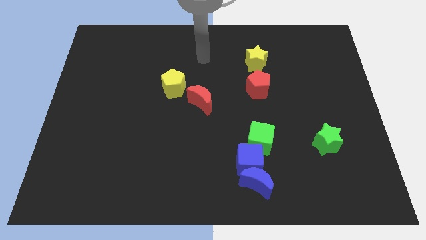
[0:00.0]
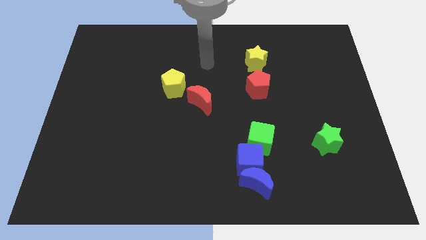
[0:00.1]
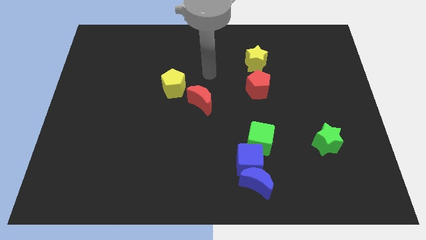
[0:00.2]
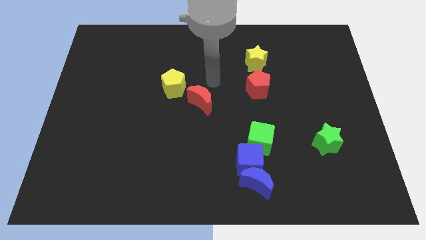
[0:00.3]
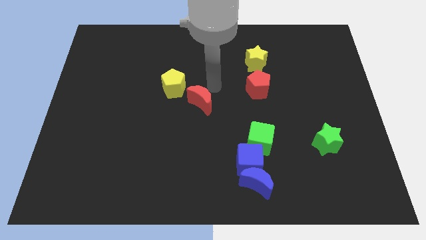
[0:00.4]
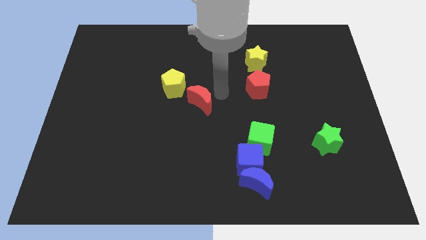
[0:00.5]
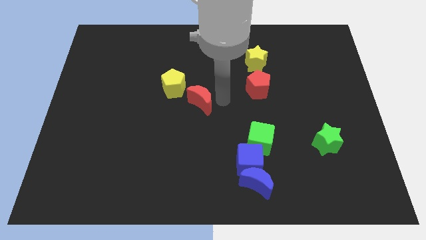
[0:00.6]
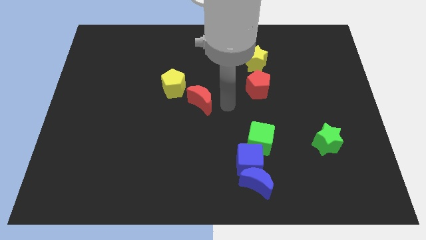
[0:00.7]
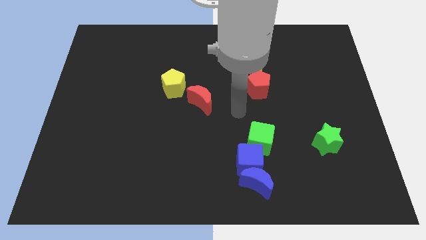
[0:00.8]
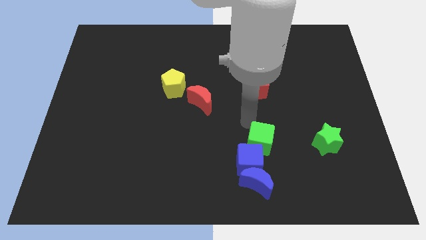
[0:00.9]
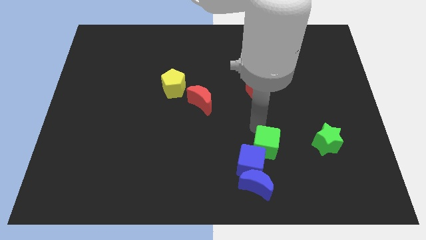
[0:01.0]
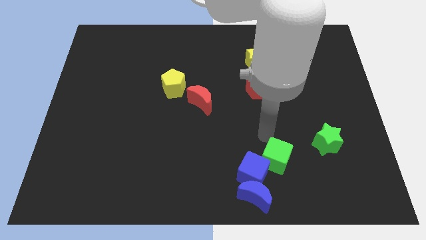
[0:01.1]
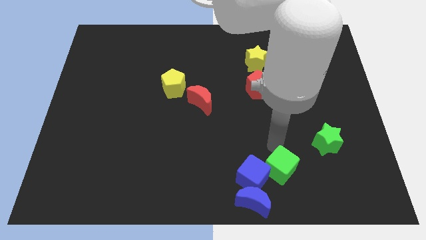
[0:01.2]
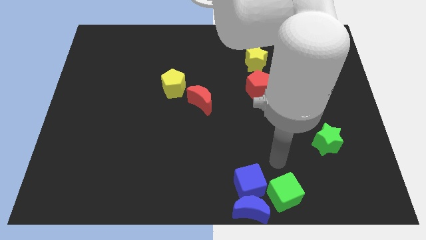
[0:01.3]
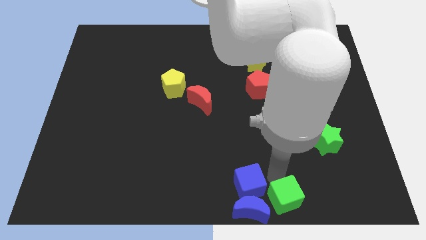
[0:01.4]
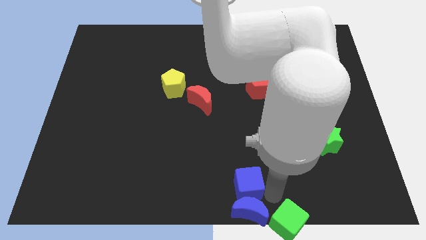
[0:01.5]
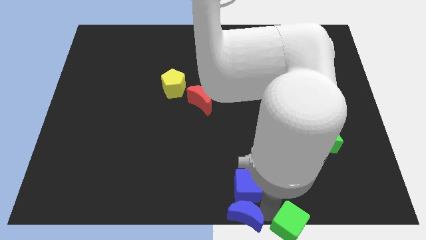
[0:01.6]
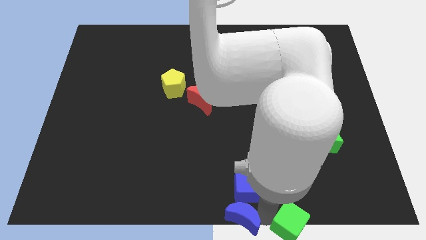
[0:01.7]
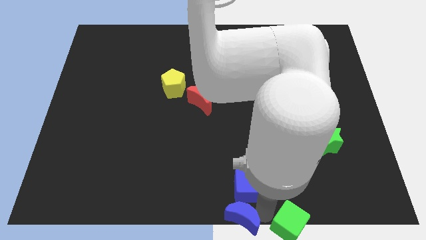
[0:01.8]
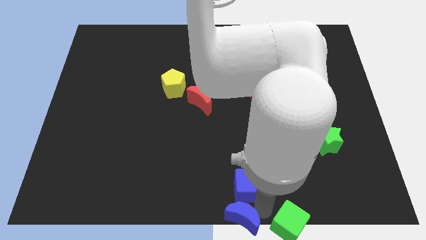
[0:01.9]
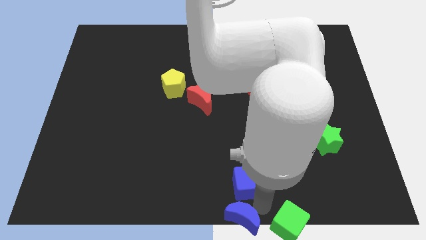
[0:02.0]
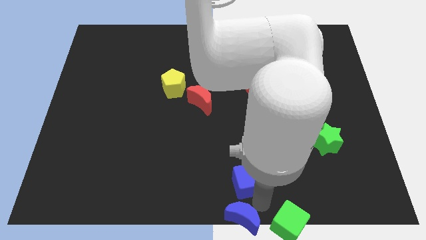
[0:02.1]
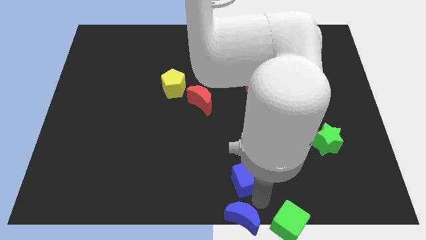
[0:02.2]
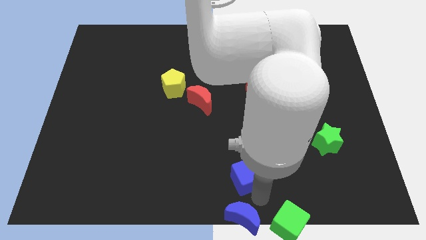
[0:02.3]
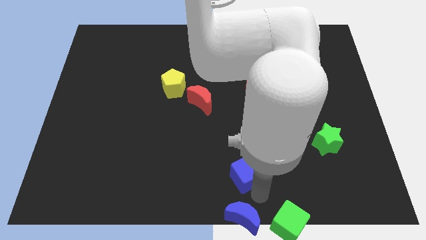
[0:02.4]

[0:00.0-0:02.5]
separate the blue cube from the blue moon and green cube

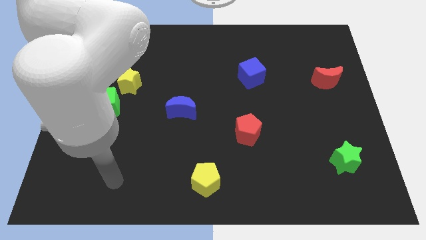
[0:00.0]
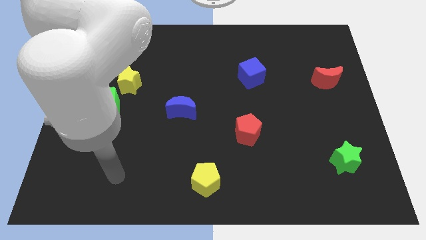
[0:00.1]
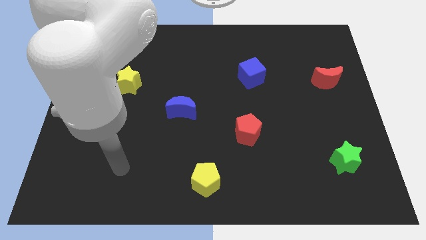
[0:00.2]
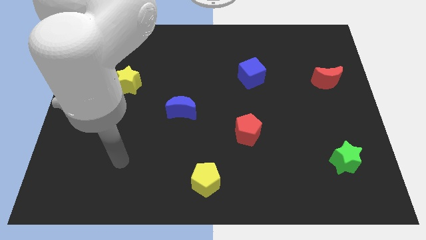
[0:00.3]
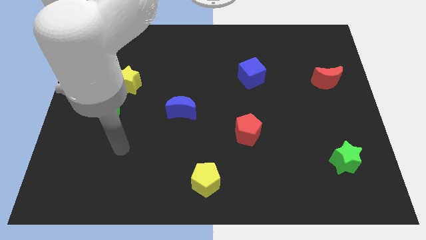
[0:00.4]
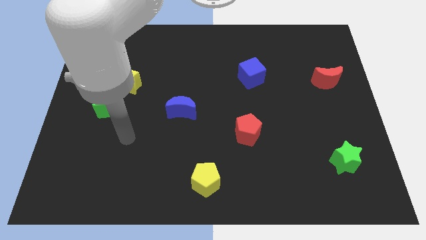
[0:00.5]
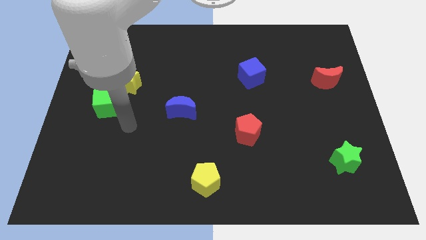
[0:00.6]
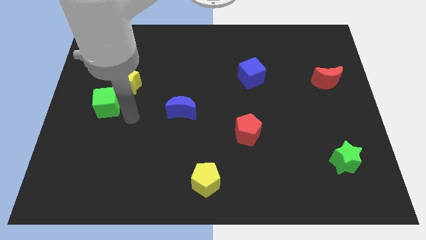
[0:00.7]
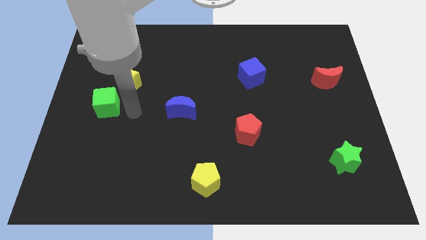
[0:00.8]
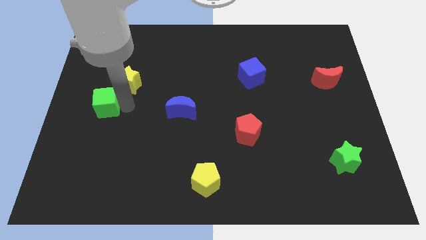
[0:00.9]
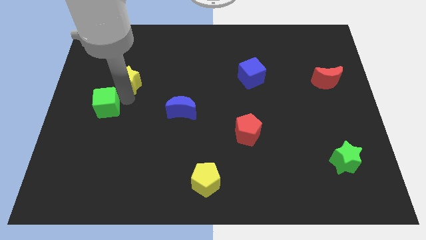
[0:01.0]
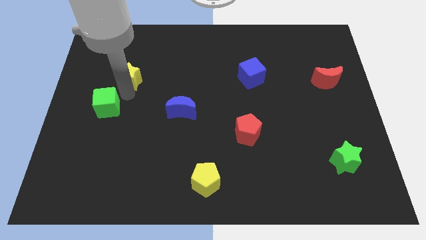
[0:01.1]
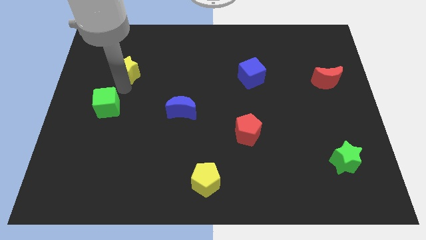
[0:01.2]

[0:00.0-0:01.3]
move the green cube away from the yellow star

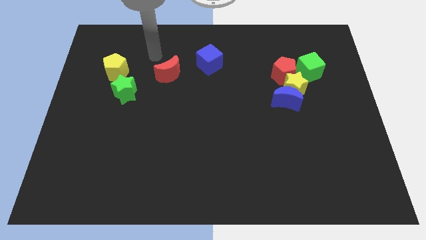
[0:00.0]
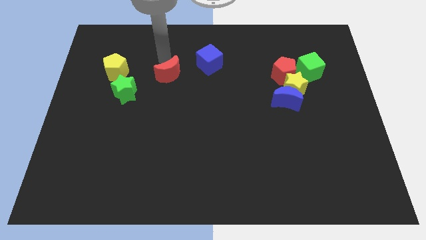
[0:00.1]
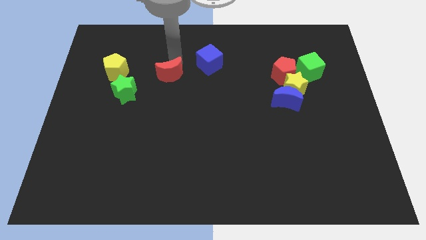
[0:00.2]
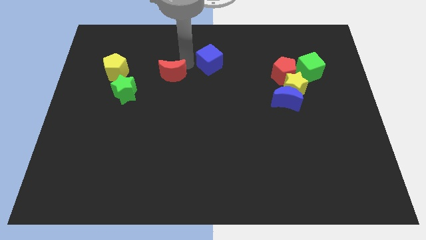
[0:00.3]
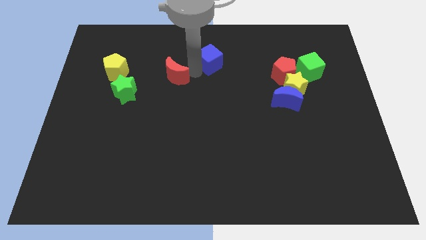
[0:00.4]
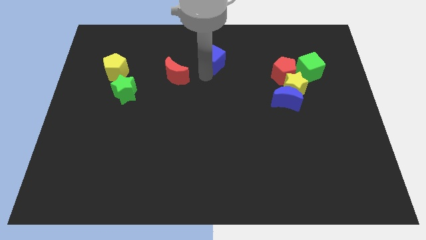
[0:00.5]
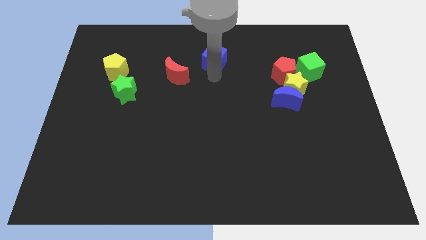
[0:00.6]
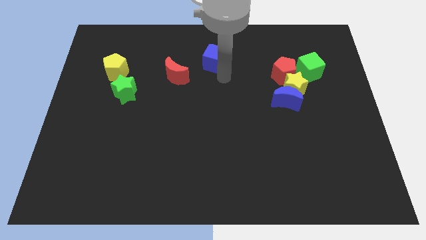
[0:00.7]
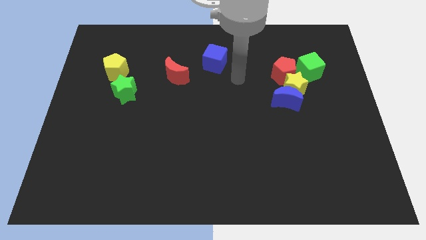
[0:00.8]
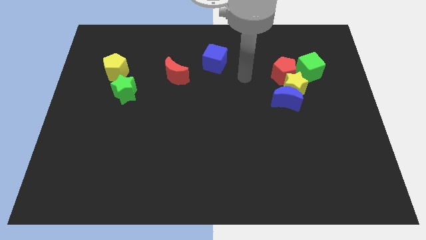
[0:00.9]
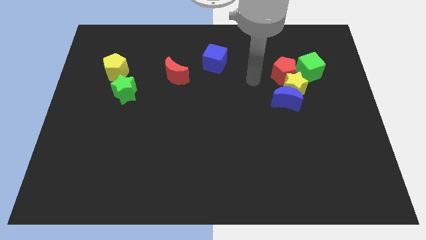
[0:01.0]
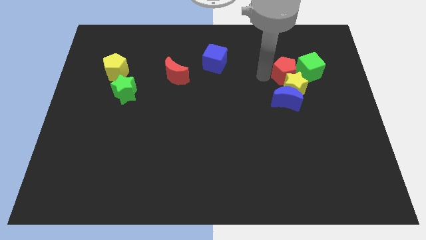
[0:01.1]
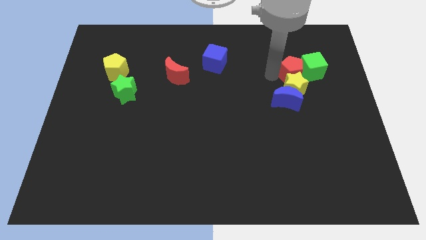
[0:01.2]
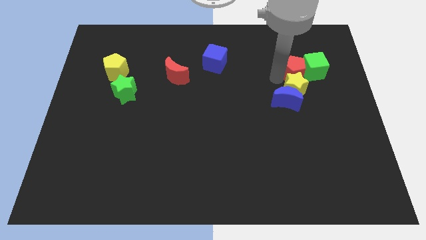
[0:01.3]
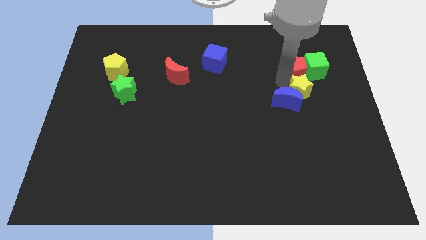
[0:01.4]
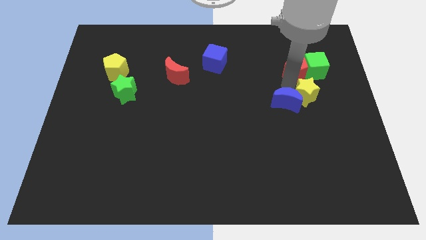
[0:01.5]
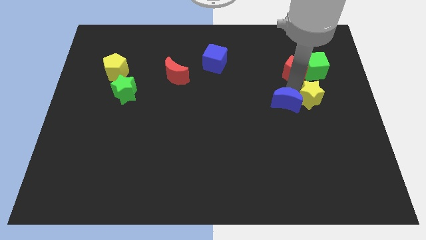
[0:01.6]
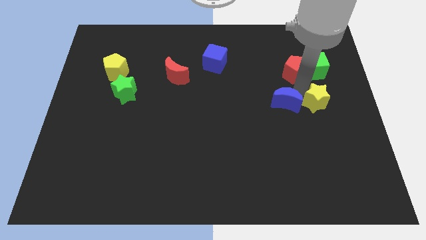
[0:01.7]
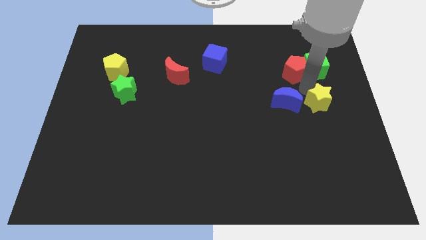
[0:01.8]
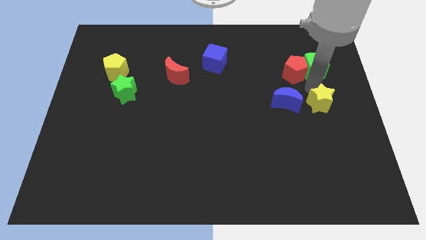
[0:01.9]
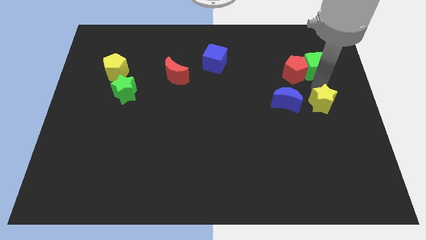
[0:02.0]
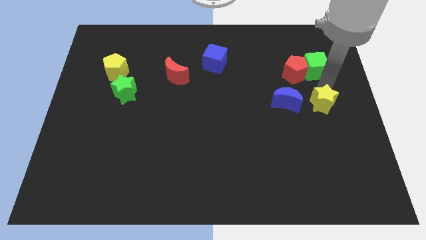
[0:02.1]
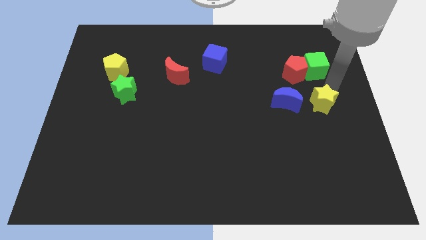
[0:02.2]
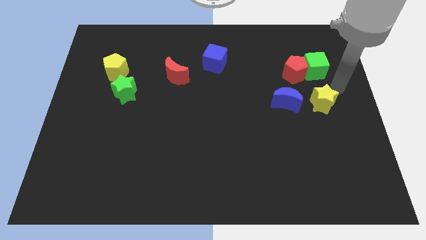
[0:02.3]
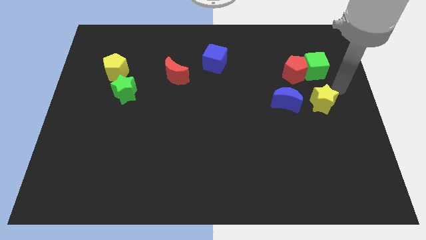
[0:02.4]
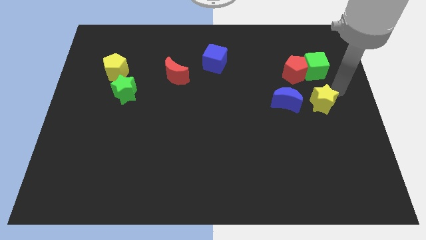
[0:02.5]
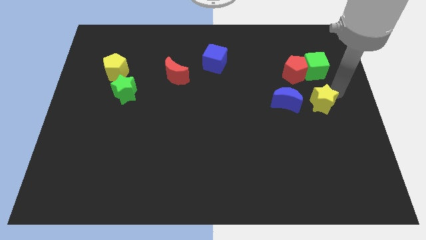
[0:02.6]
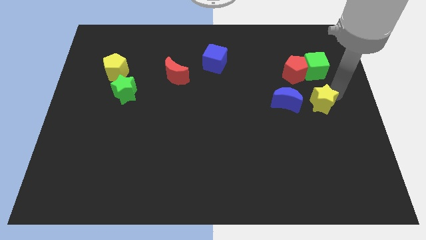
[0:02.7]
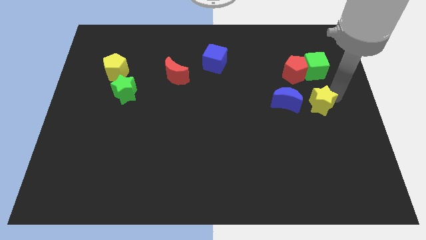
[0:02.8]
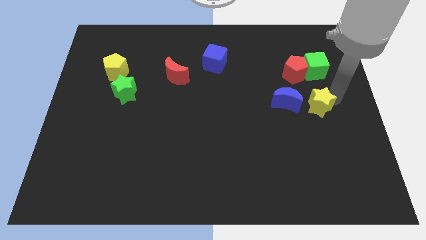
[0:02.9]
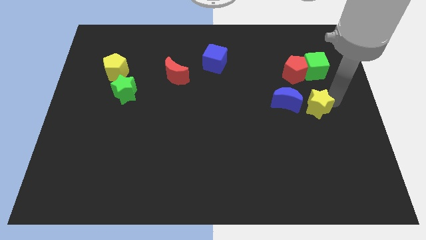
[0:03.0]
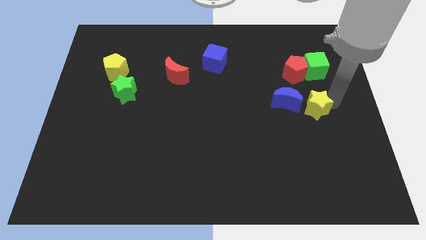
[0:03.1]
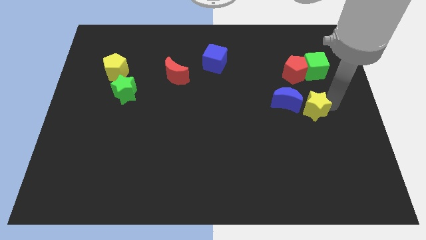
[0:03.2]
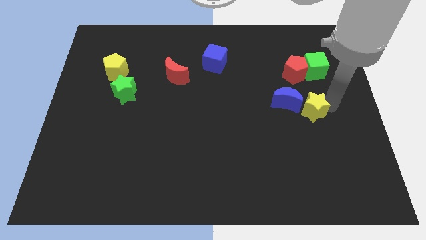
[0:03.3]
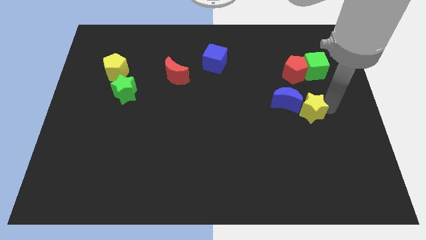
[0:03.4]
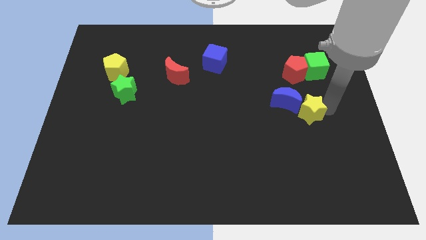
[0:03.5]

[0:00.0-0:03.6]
move the yellow star away from the blue moon, red pentagon, and green cube

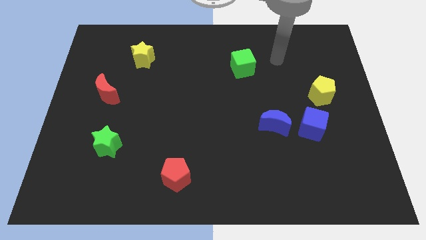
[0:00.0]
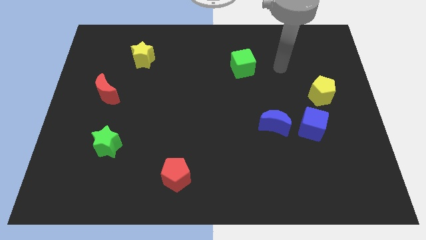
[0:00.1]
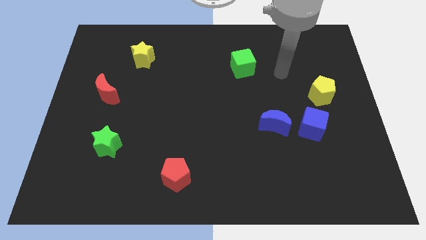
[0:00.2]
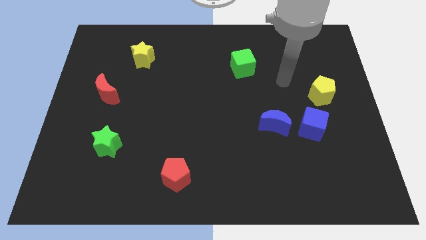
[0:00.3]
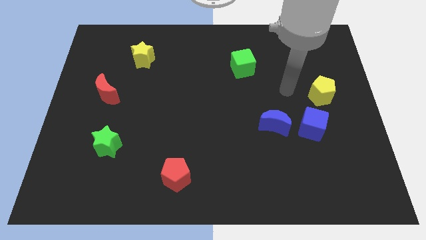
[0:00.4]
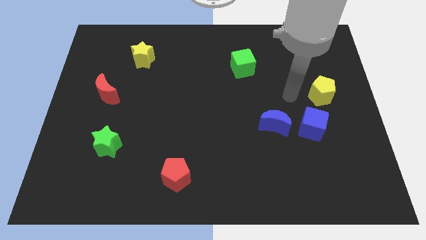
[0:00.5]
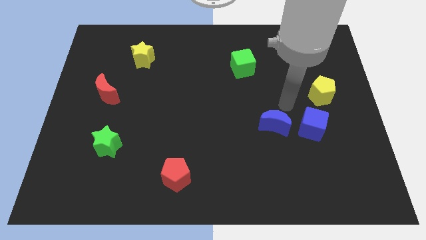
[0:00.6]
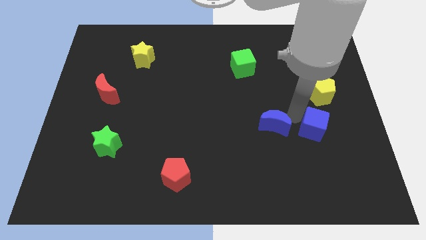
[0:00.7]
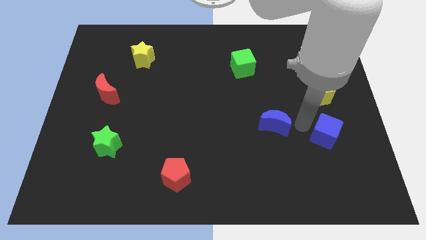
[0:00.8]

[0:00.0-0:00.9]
separate the blue moon from the blue cube

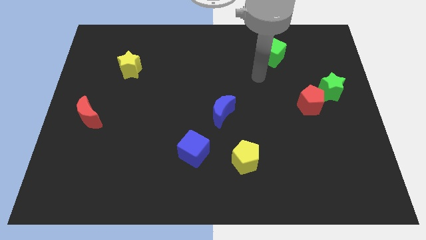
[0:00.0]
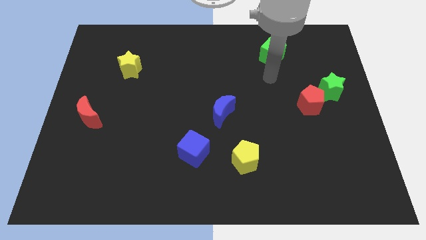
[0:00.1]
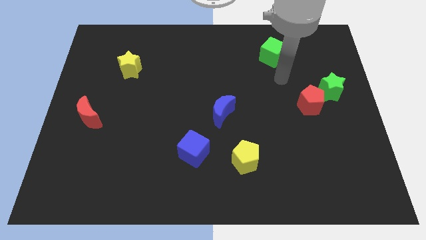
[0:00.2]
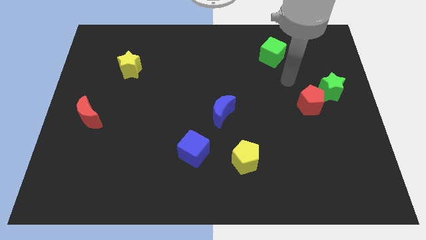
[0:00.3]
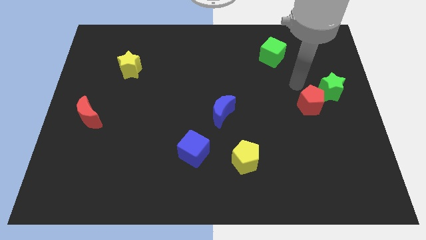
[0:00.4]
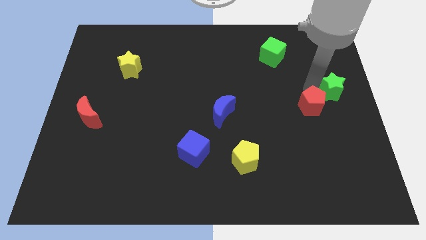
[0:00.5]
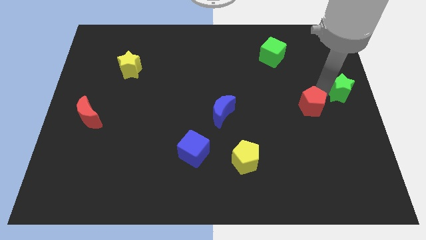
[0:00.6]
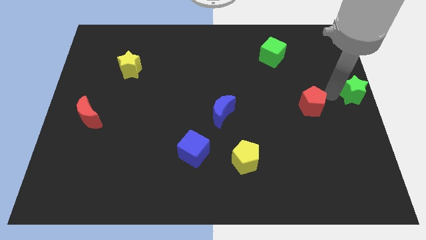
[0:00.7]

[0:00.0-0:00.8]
pull the red pentagon apart from the green star

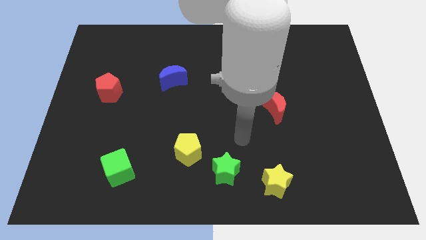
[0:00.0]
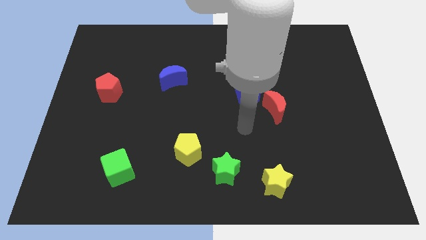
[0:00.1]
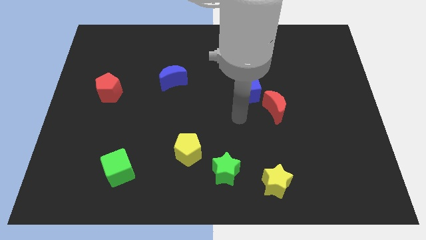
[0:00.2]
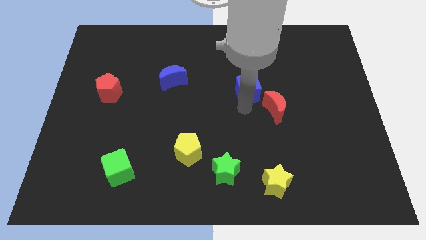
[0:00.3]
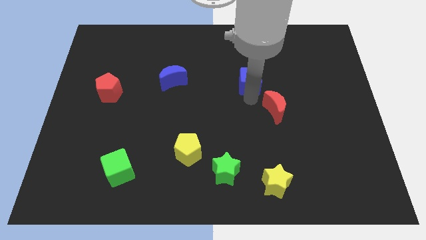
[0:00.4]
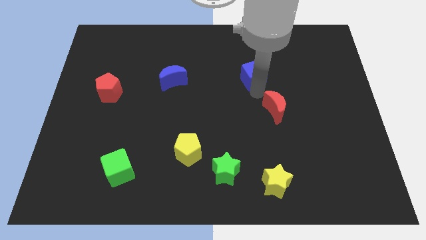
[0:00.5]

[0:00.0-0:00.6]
pull the red moon apart from the blue cube
